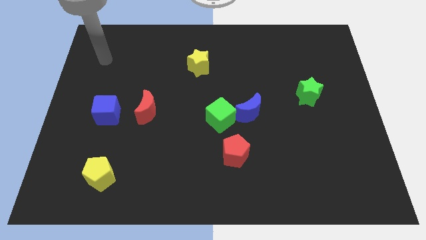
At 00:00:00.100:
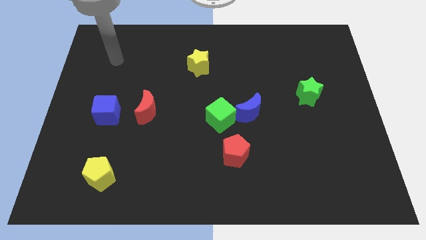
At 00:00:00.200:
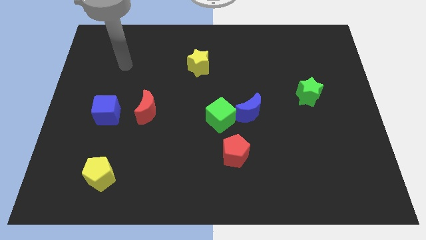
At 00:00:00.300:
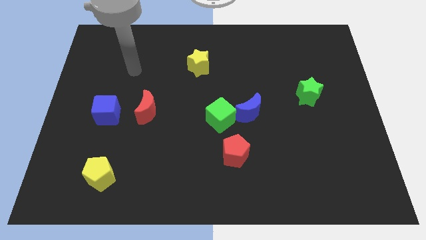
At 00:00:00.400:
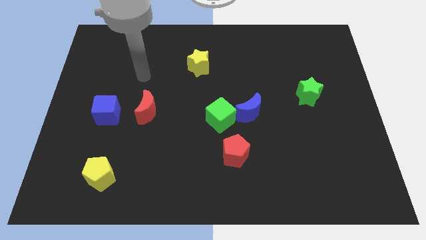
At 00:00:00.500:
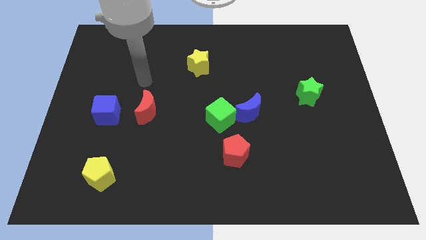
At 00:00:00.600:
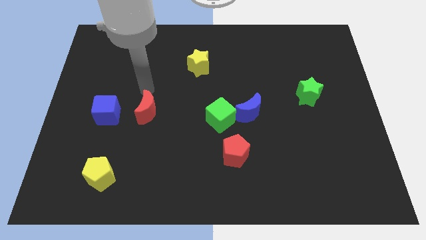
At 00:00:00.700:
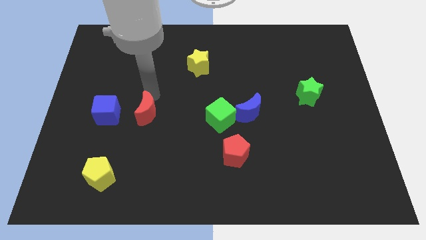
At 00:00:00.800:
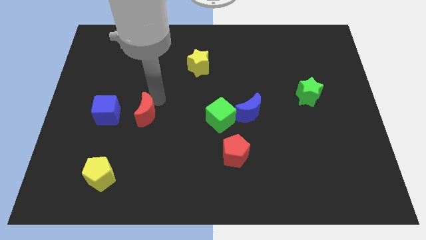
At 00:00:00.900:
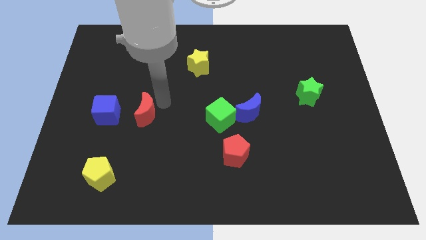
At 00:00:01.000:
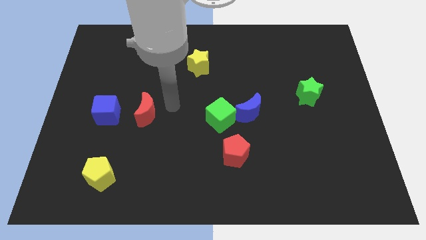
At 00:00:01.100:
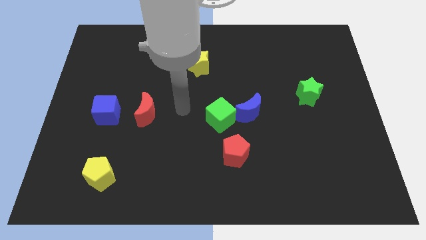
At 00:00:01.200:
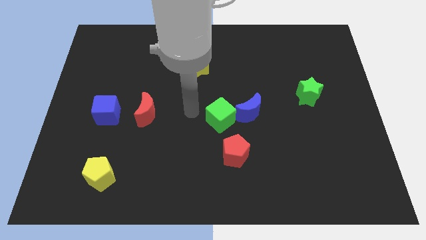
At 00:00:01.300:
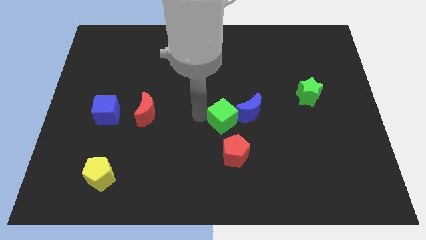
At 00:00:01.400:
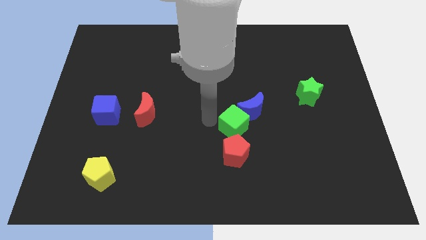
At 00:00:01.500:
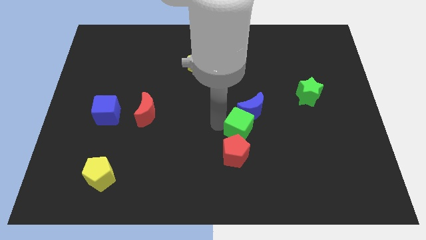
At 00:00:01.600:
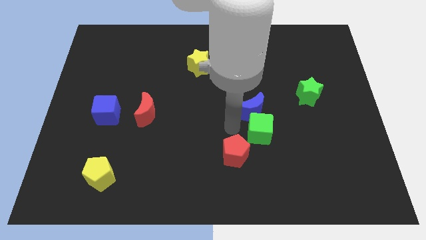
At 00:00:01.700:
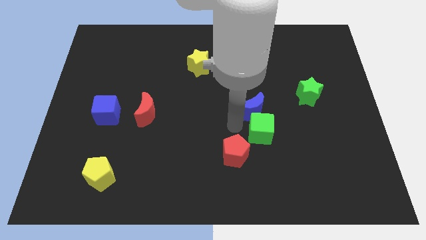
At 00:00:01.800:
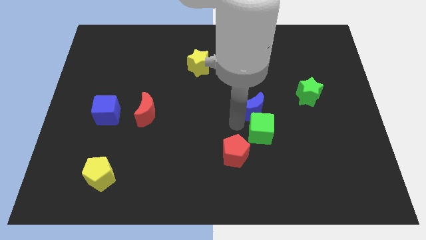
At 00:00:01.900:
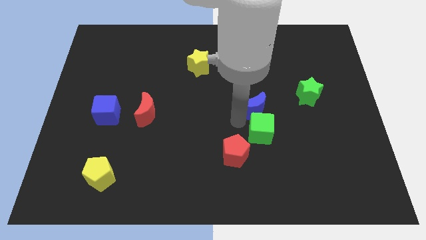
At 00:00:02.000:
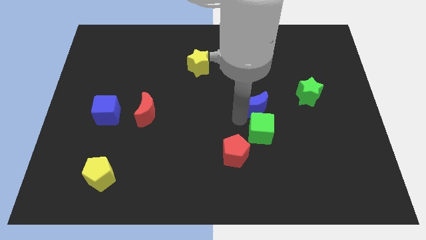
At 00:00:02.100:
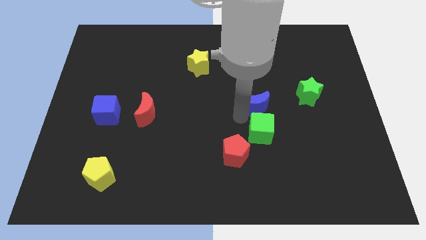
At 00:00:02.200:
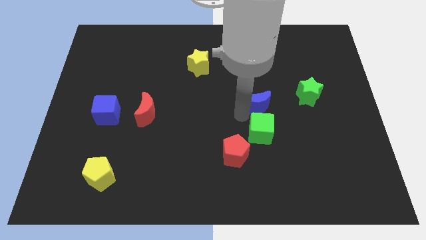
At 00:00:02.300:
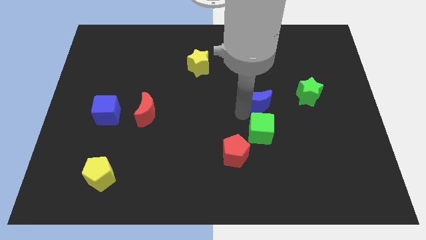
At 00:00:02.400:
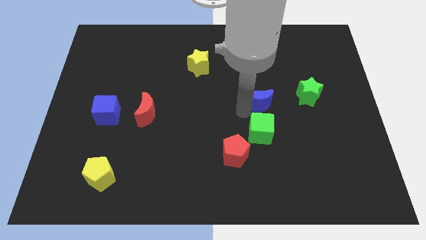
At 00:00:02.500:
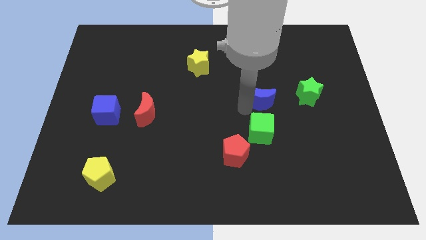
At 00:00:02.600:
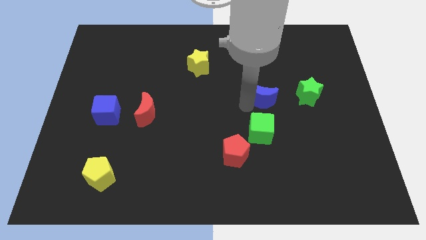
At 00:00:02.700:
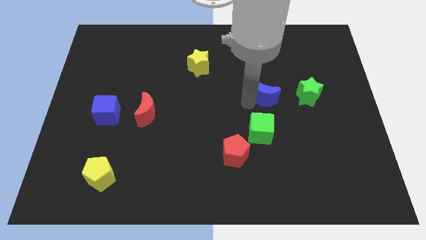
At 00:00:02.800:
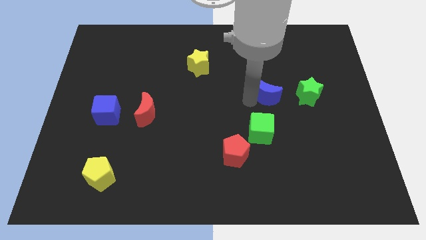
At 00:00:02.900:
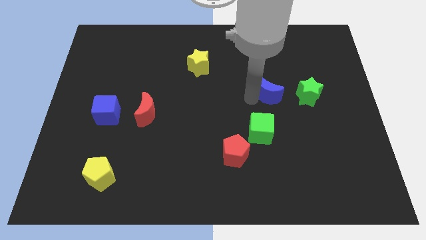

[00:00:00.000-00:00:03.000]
slide the blue moon up and then to the right a little

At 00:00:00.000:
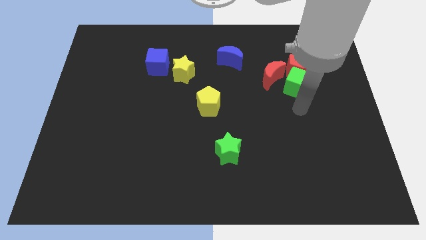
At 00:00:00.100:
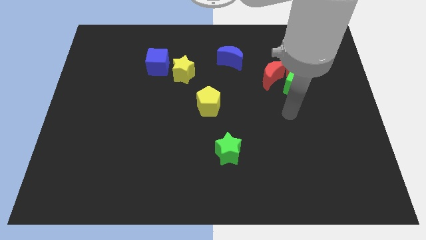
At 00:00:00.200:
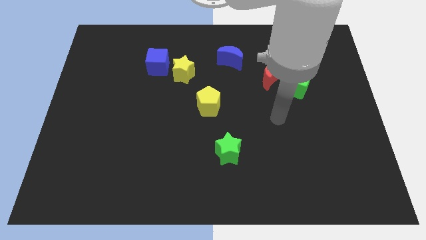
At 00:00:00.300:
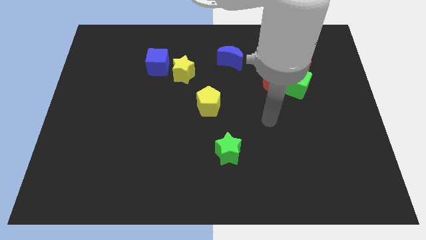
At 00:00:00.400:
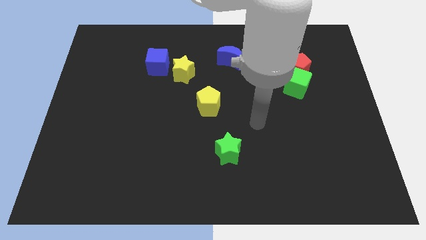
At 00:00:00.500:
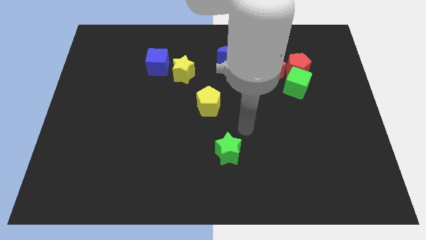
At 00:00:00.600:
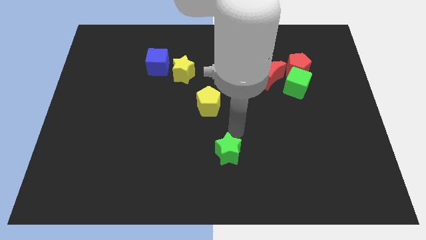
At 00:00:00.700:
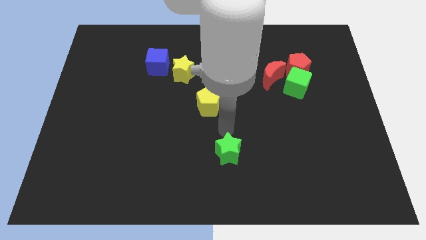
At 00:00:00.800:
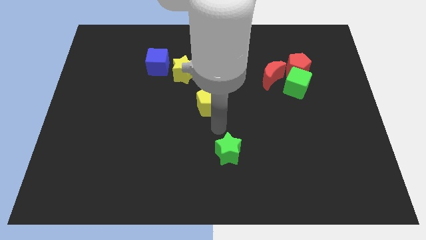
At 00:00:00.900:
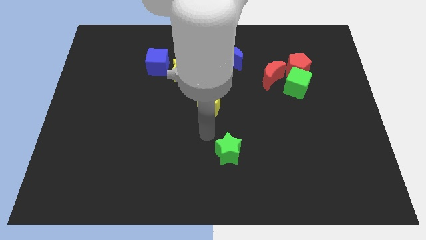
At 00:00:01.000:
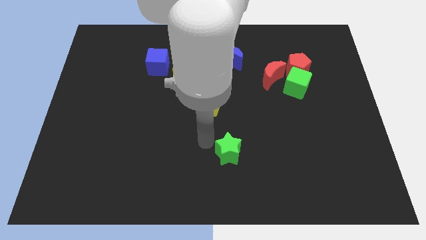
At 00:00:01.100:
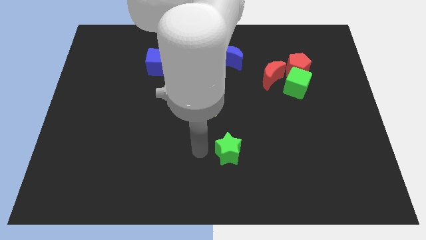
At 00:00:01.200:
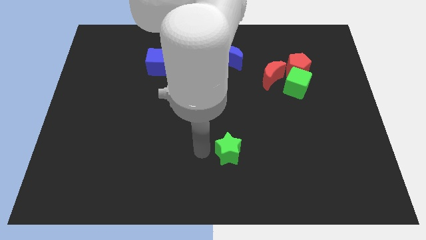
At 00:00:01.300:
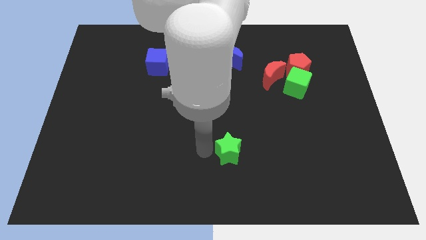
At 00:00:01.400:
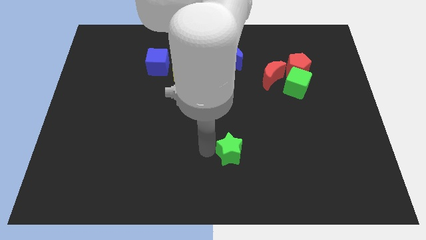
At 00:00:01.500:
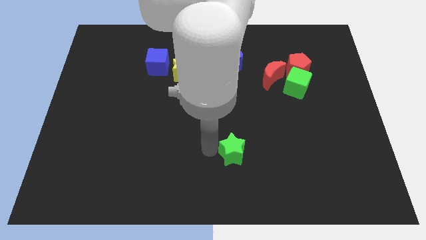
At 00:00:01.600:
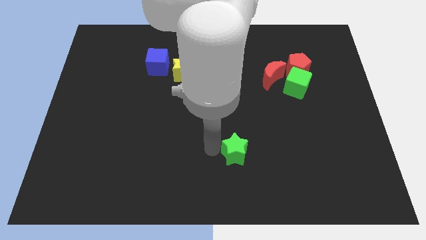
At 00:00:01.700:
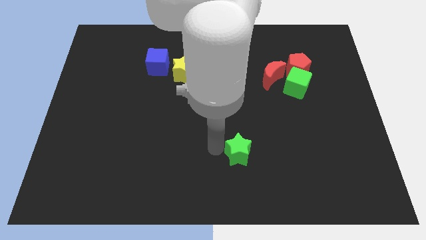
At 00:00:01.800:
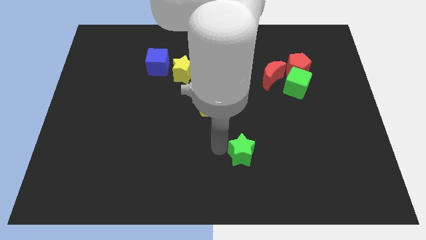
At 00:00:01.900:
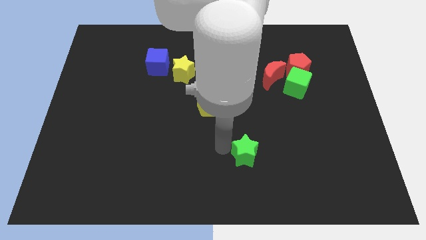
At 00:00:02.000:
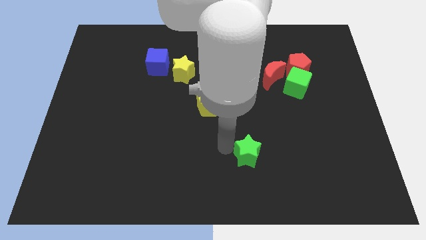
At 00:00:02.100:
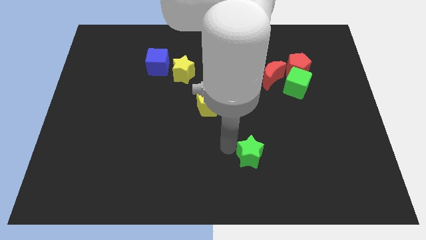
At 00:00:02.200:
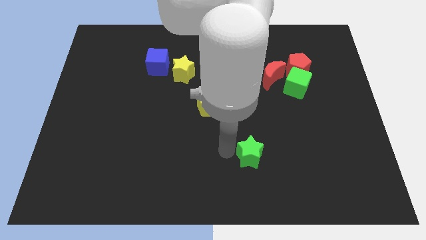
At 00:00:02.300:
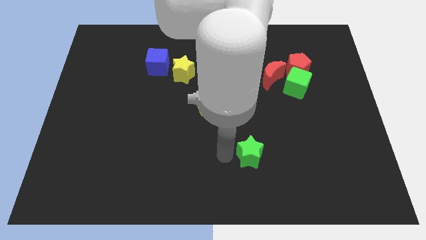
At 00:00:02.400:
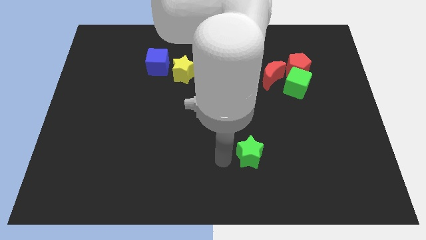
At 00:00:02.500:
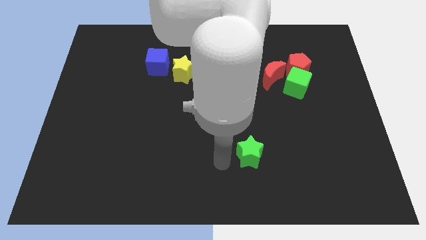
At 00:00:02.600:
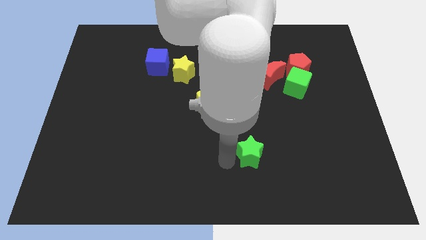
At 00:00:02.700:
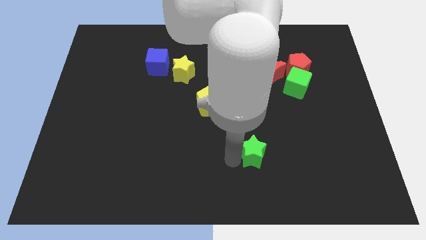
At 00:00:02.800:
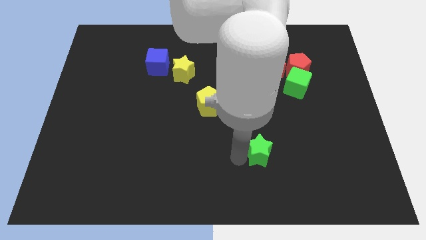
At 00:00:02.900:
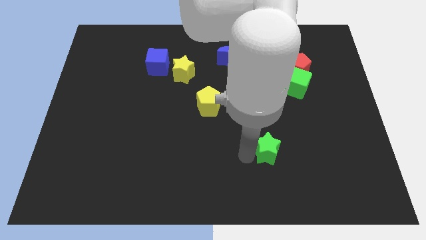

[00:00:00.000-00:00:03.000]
slightly slide the green star to the right

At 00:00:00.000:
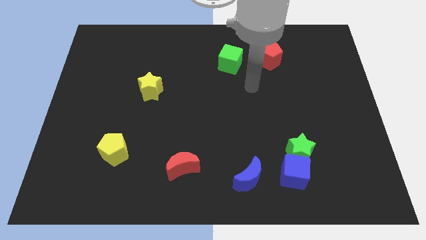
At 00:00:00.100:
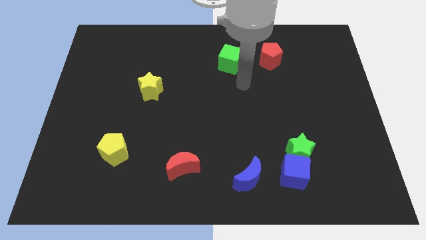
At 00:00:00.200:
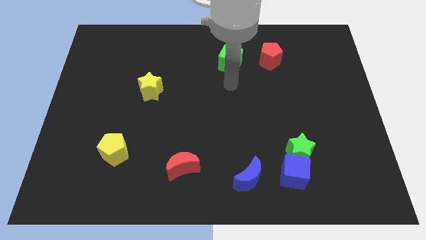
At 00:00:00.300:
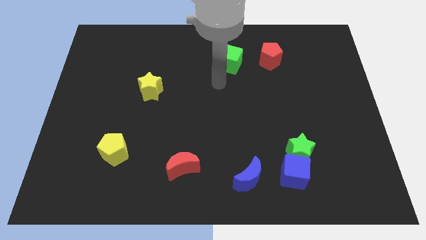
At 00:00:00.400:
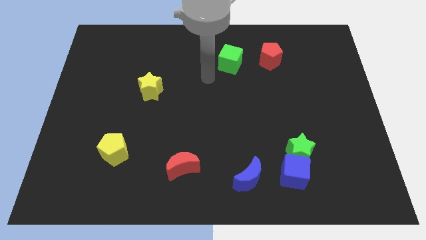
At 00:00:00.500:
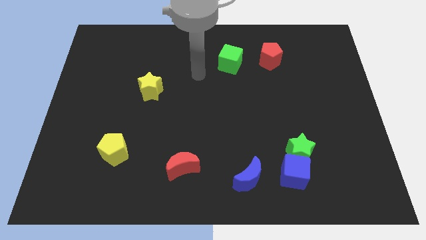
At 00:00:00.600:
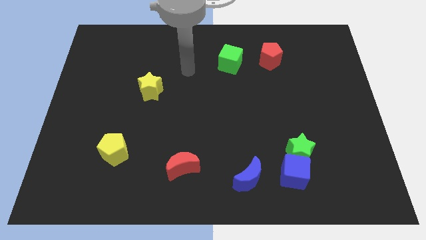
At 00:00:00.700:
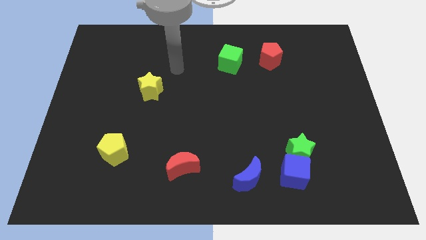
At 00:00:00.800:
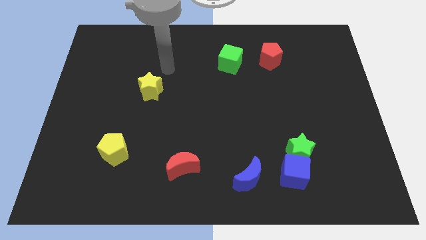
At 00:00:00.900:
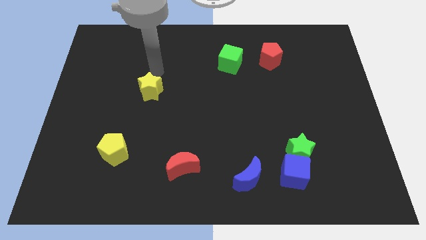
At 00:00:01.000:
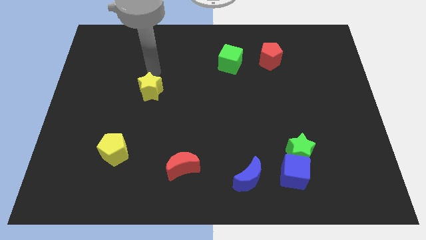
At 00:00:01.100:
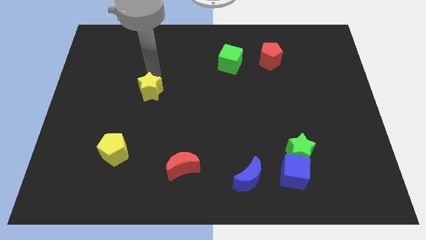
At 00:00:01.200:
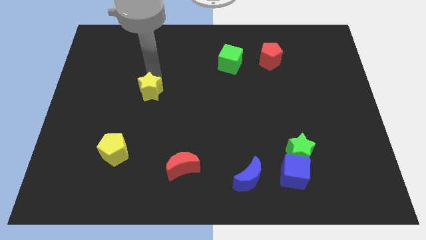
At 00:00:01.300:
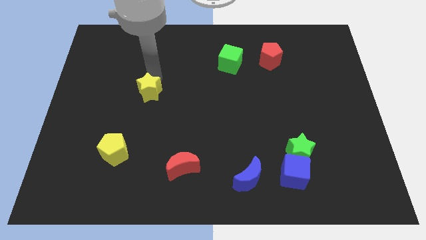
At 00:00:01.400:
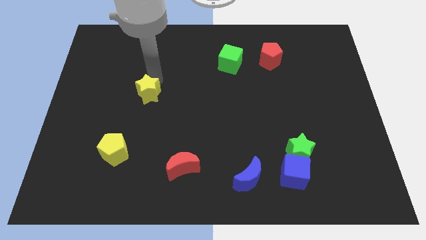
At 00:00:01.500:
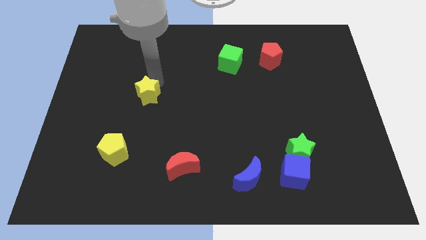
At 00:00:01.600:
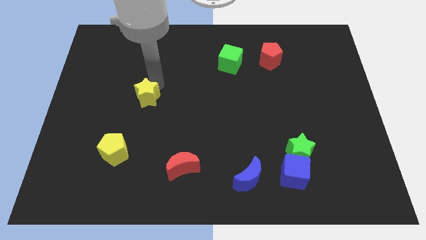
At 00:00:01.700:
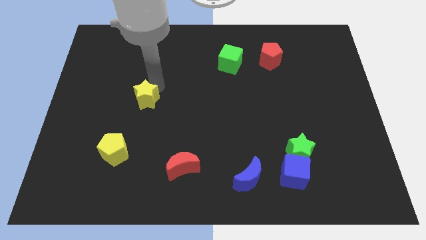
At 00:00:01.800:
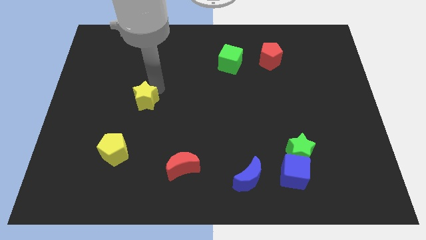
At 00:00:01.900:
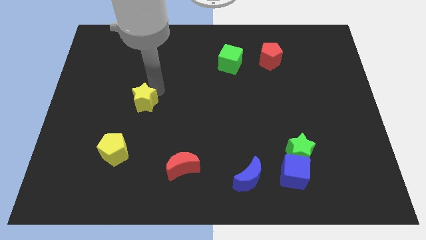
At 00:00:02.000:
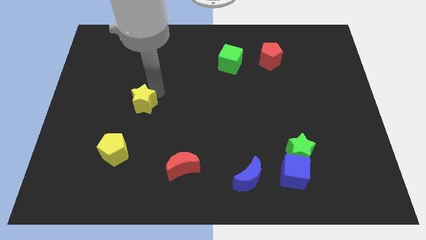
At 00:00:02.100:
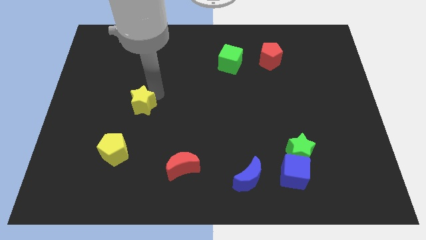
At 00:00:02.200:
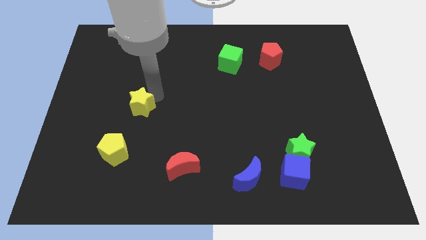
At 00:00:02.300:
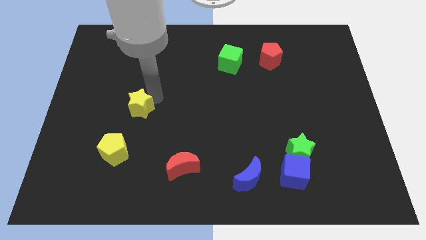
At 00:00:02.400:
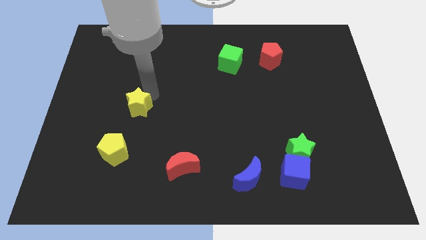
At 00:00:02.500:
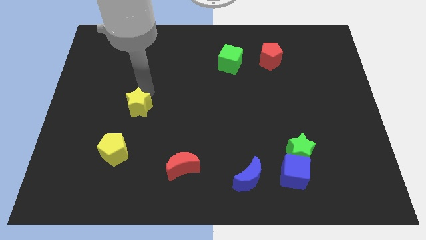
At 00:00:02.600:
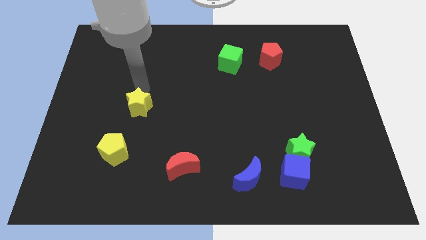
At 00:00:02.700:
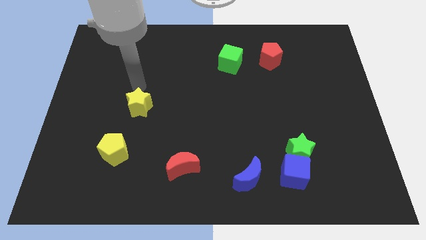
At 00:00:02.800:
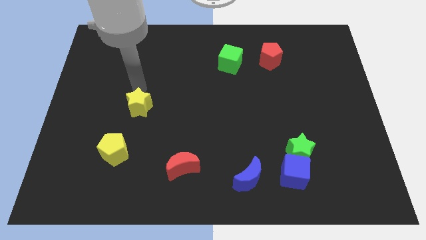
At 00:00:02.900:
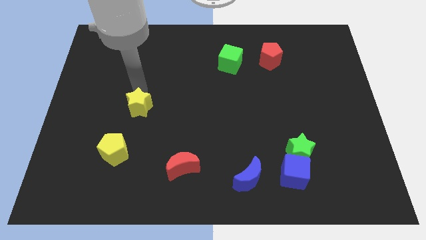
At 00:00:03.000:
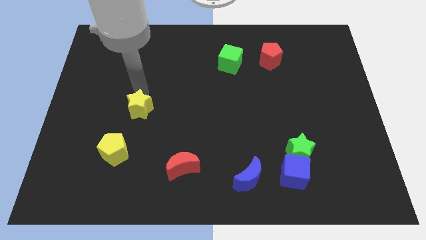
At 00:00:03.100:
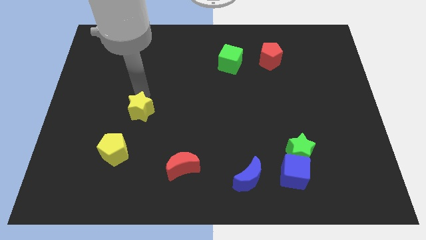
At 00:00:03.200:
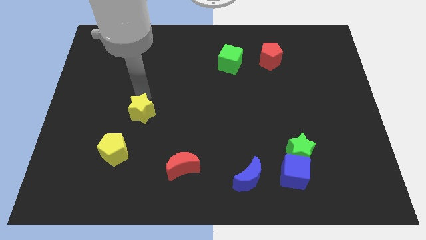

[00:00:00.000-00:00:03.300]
slightly slide the yellow star down
